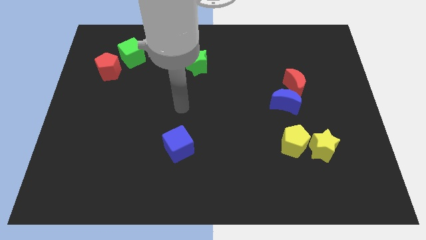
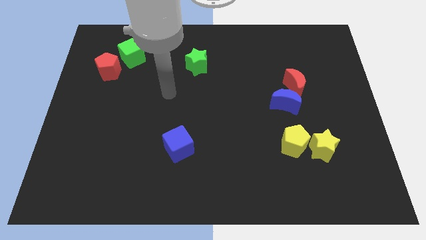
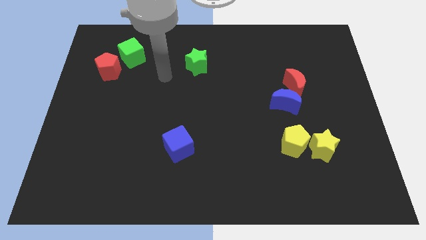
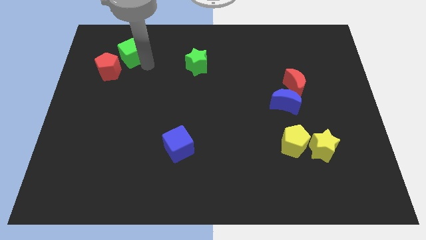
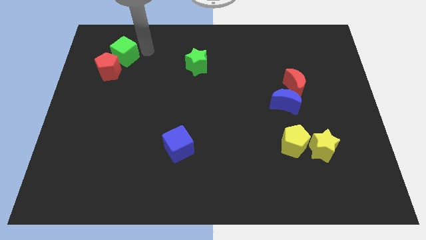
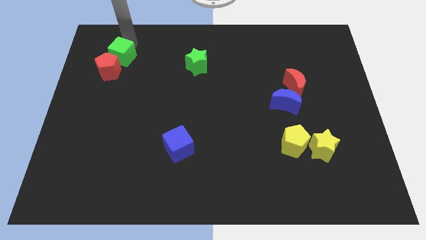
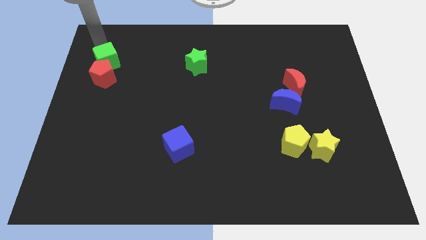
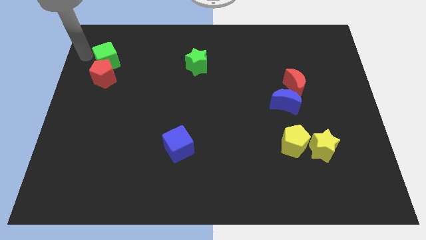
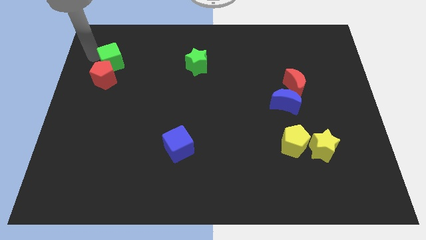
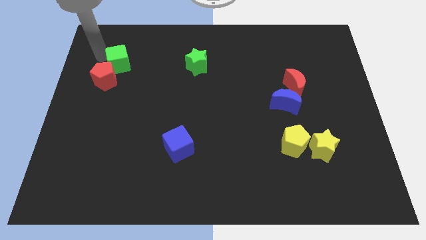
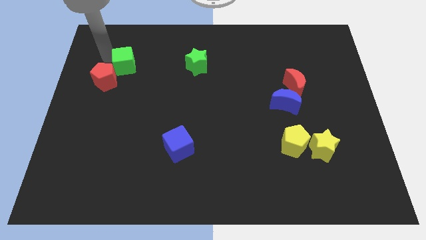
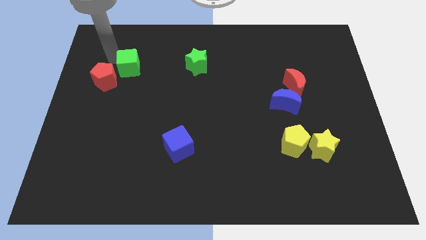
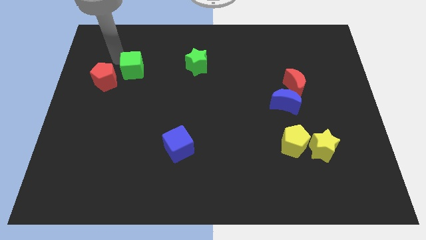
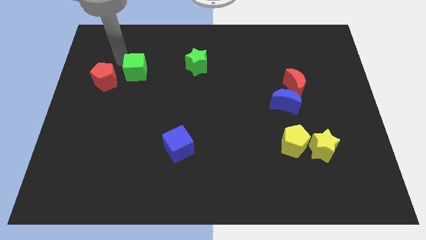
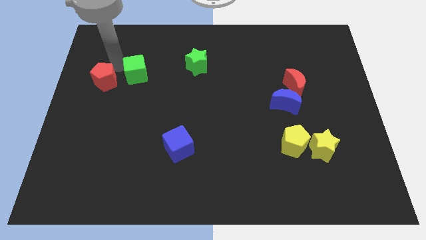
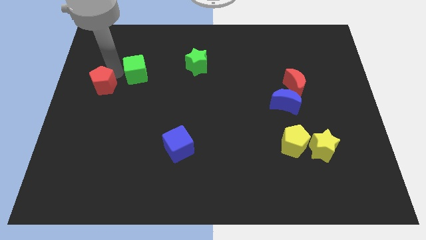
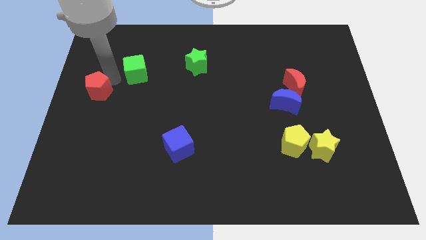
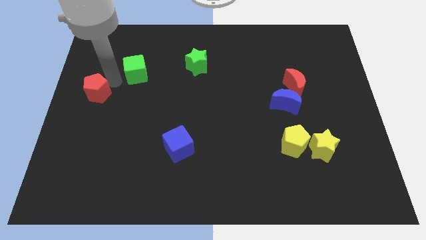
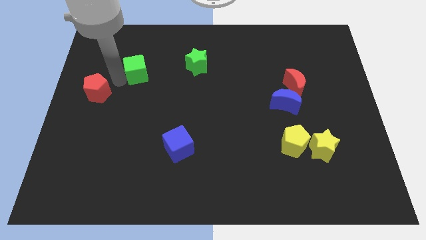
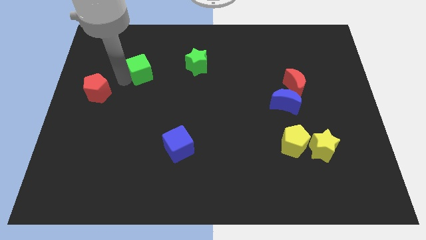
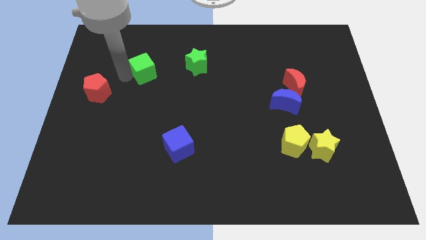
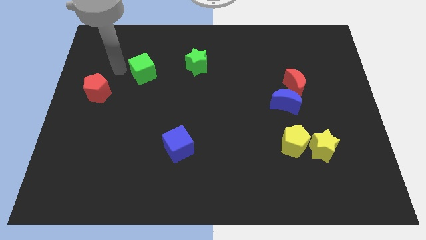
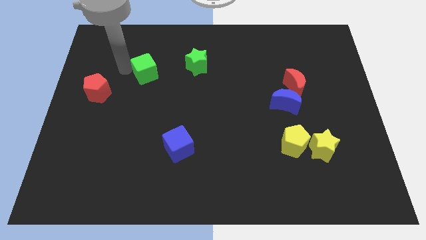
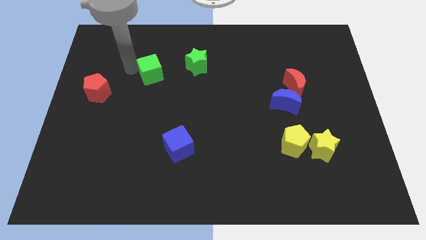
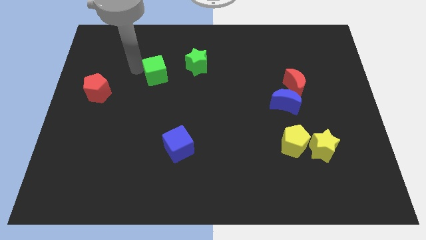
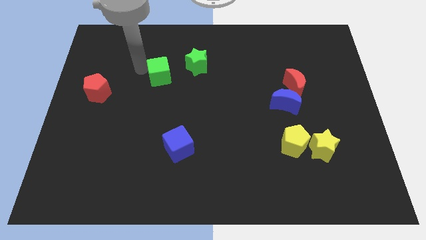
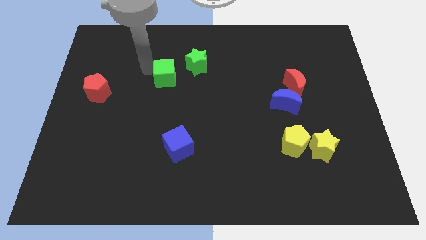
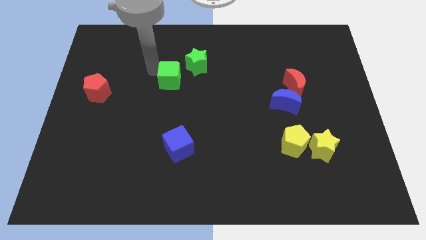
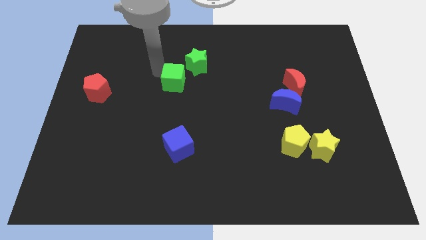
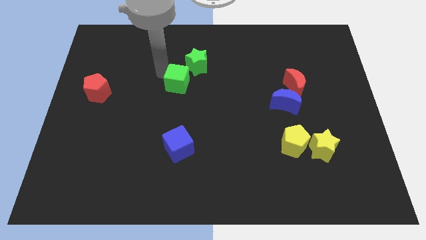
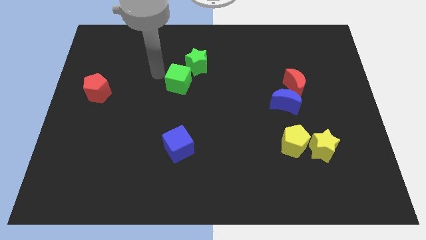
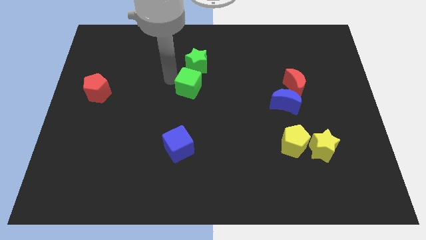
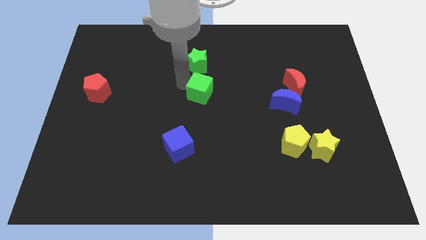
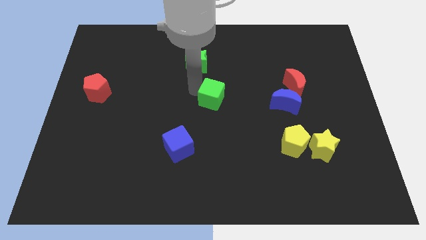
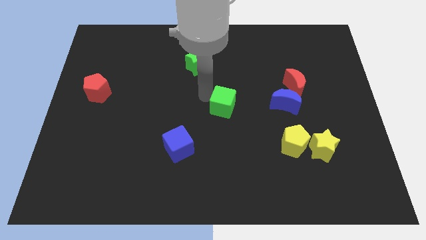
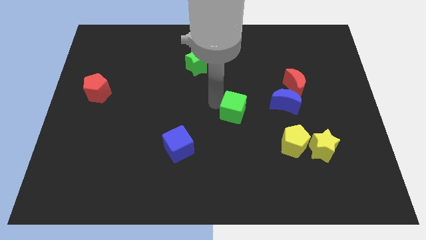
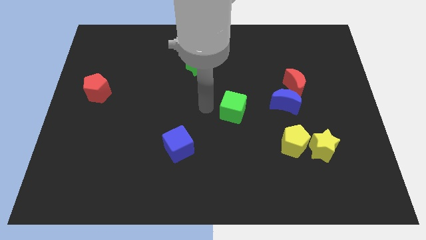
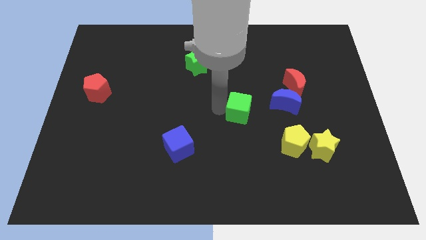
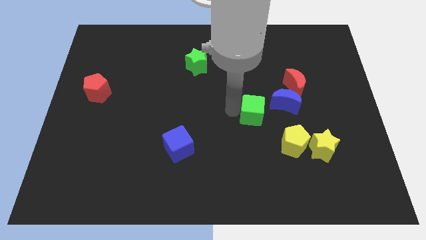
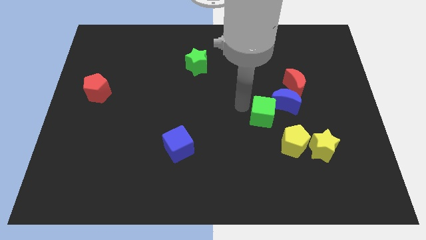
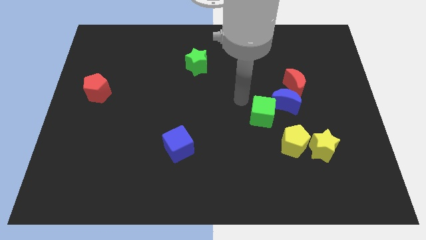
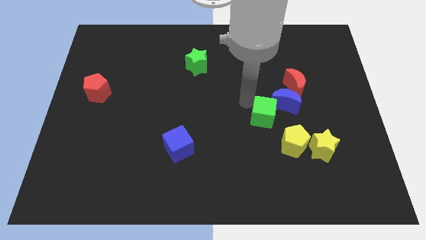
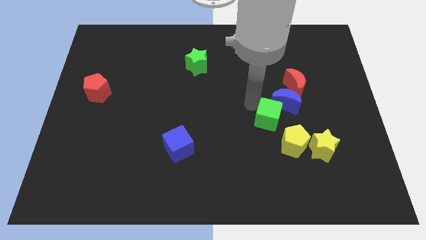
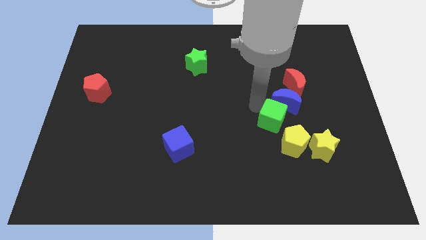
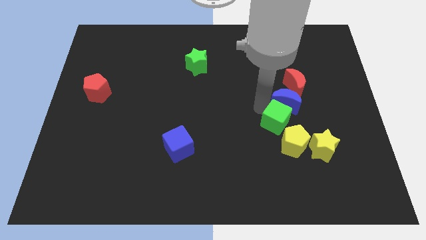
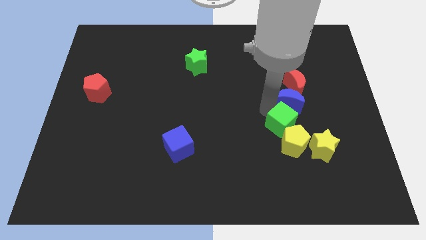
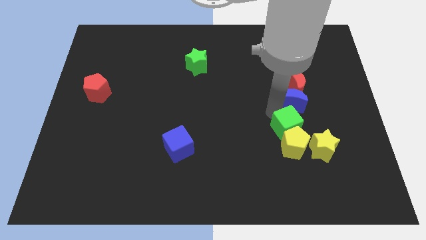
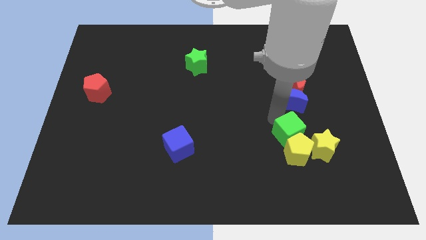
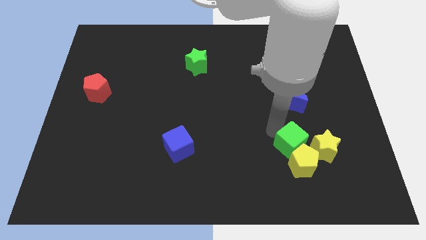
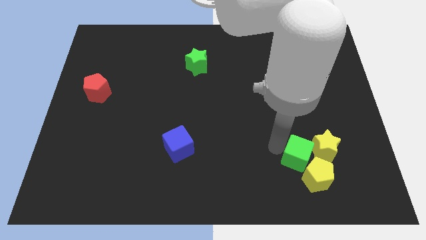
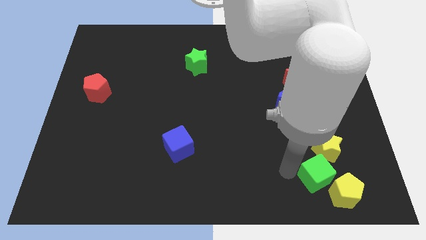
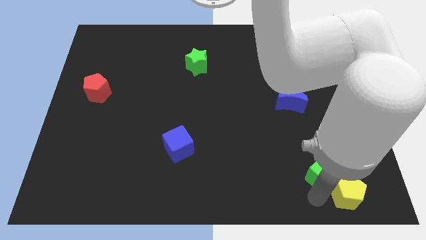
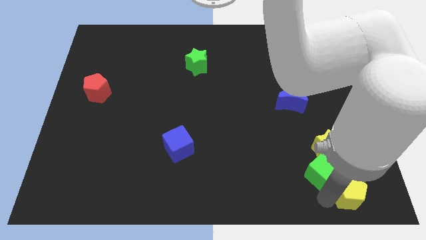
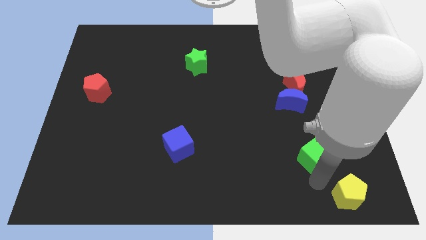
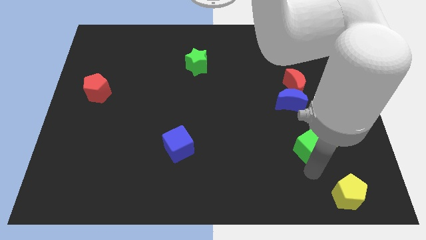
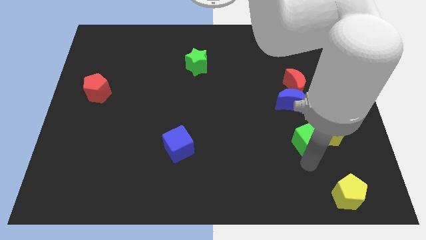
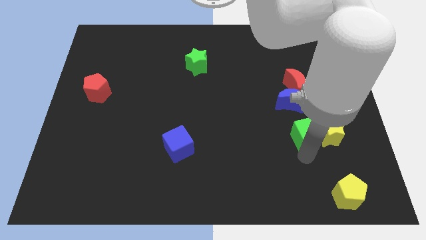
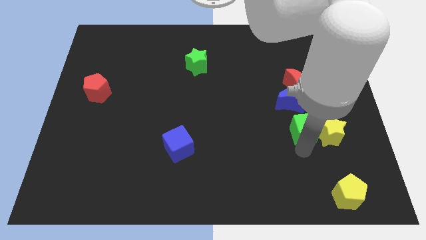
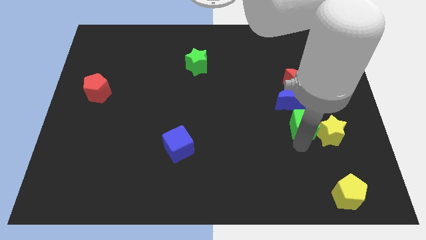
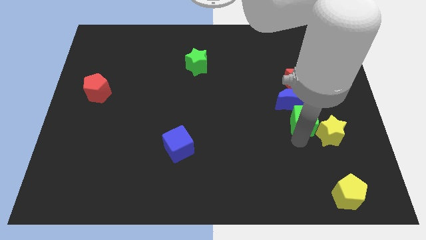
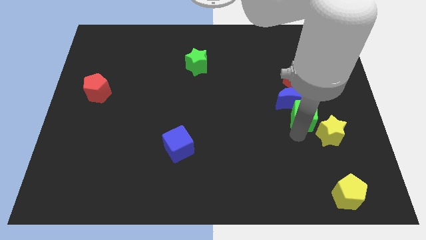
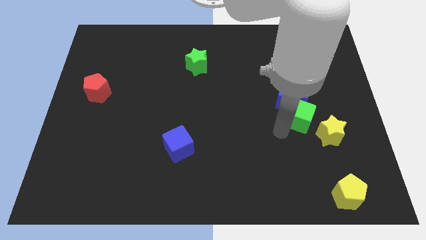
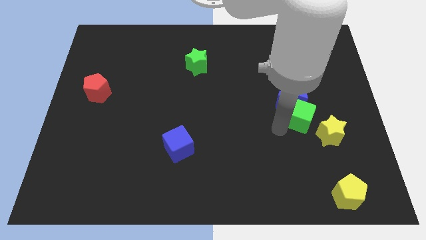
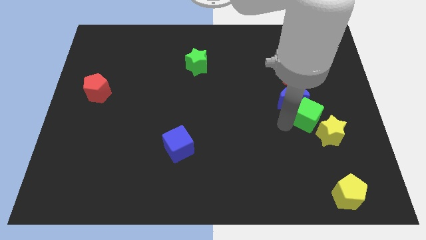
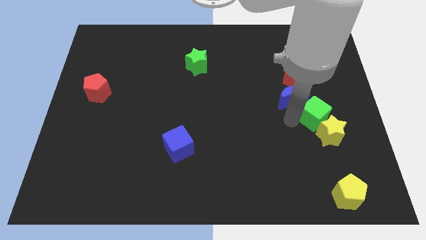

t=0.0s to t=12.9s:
slide the green cube right of the blue moon
